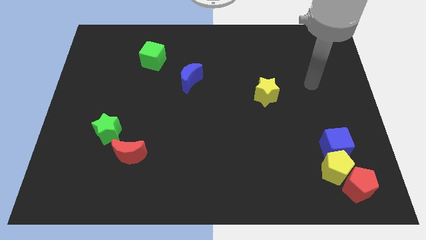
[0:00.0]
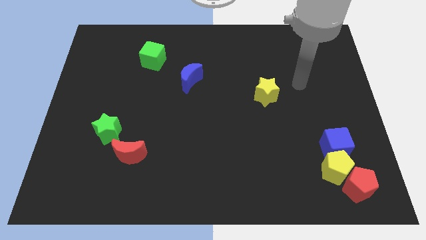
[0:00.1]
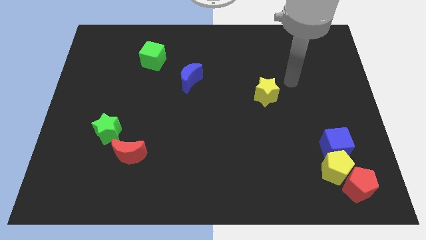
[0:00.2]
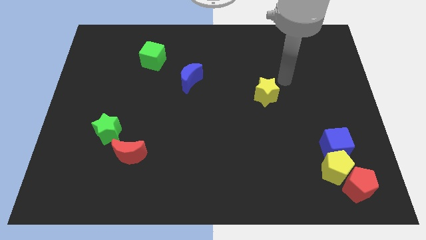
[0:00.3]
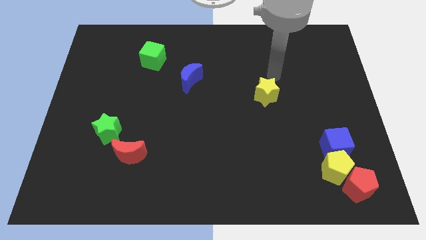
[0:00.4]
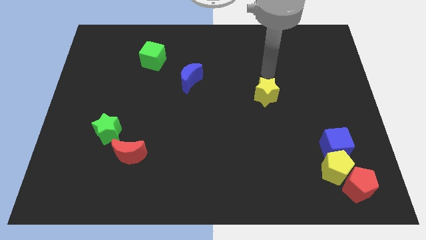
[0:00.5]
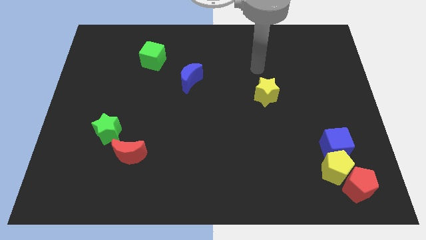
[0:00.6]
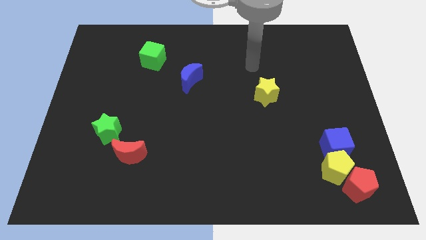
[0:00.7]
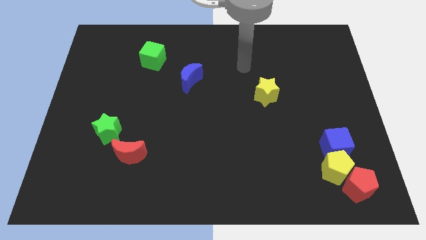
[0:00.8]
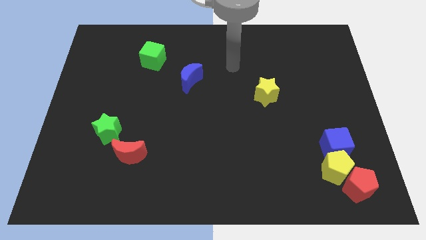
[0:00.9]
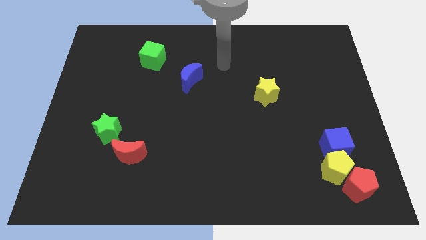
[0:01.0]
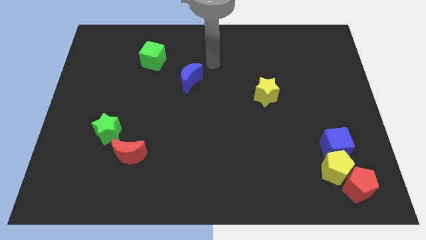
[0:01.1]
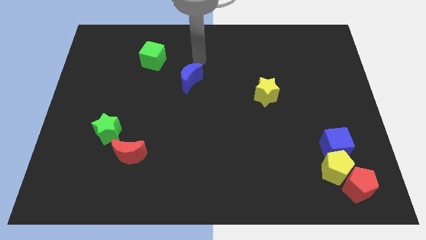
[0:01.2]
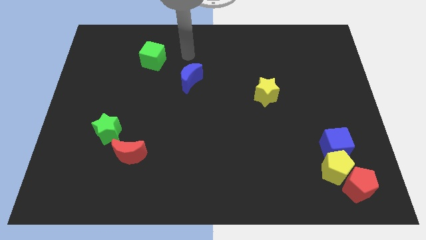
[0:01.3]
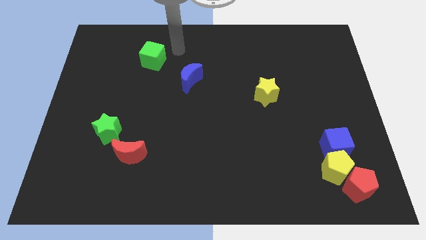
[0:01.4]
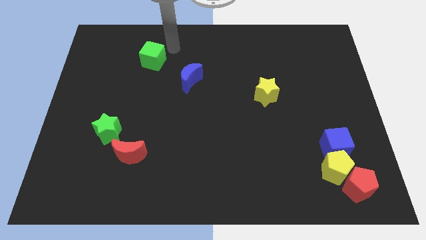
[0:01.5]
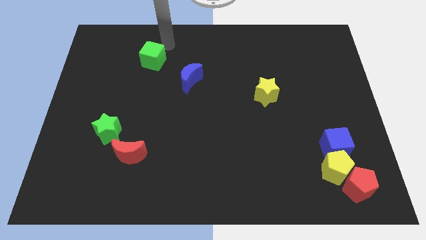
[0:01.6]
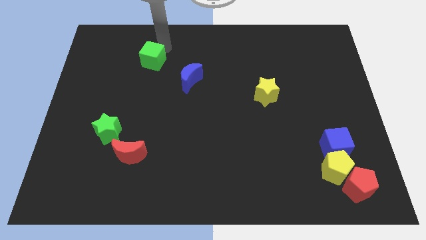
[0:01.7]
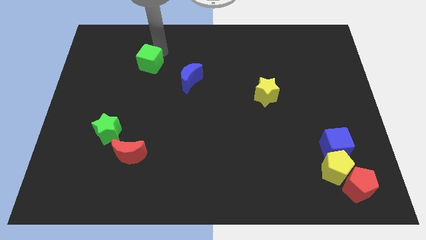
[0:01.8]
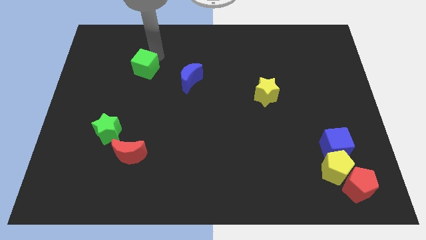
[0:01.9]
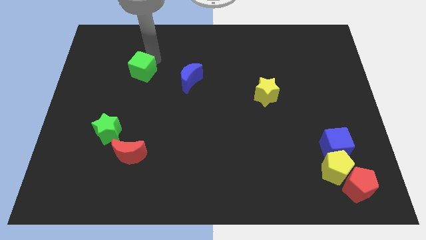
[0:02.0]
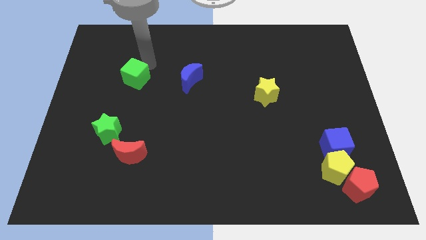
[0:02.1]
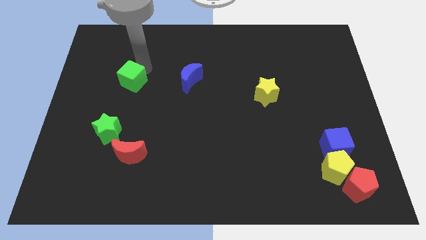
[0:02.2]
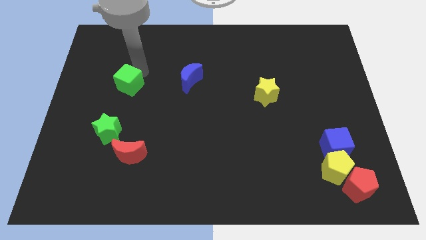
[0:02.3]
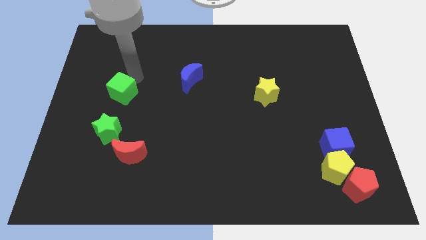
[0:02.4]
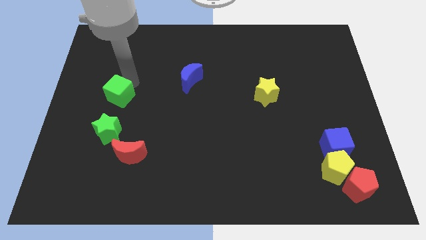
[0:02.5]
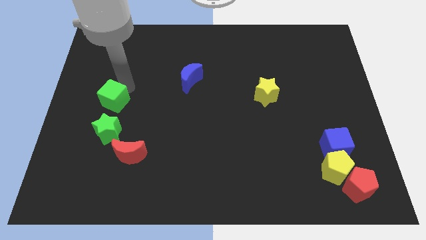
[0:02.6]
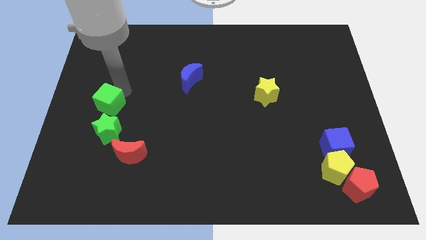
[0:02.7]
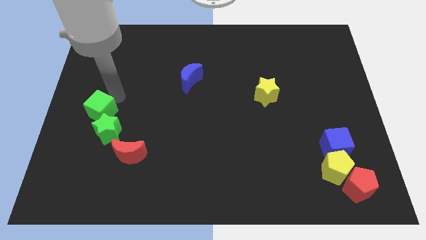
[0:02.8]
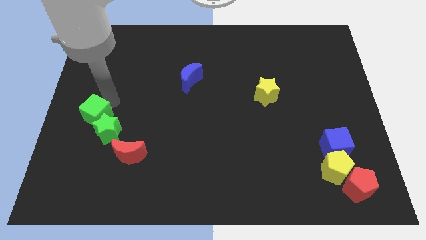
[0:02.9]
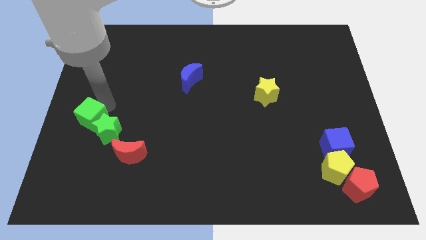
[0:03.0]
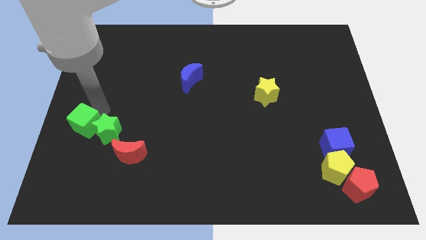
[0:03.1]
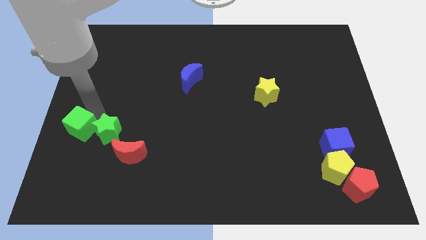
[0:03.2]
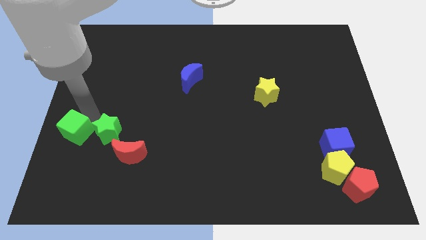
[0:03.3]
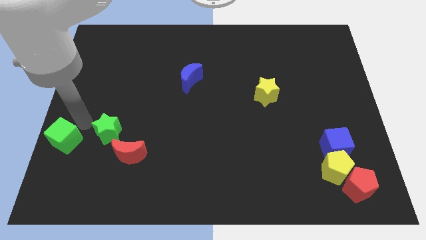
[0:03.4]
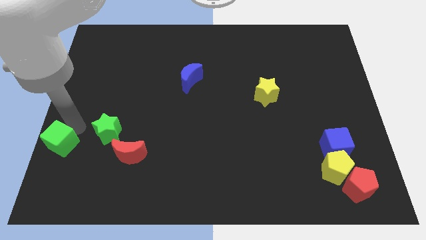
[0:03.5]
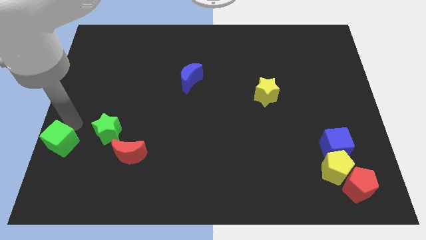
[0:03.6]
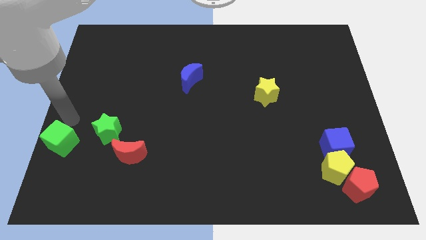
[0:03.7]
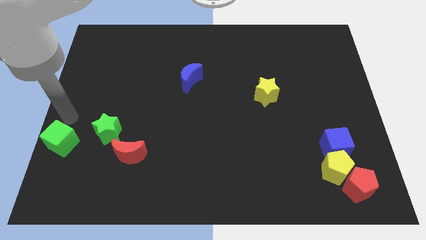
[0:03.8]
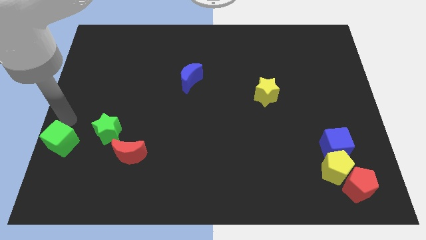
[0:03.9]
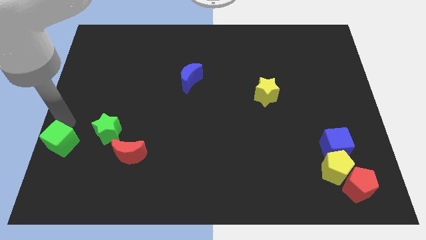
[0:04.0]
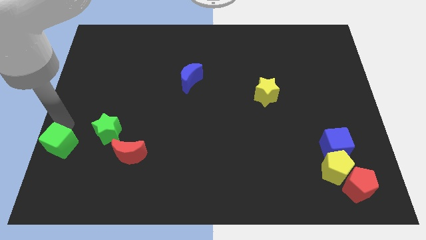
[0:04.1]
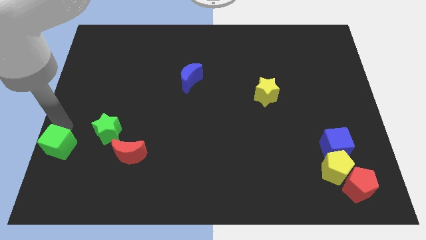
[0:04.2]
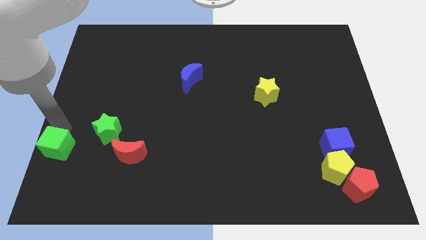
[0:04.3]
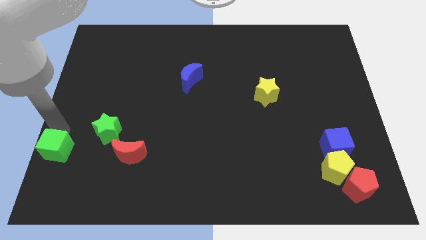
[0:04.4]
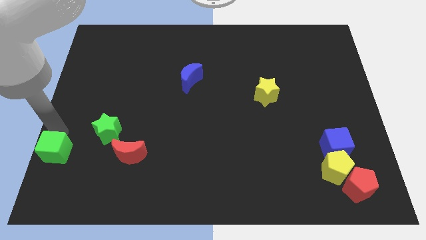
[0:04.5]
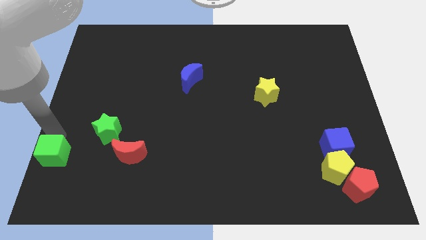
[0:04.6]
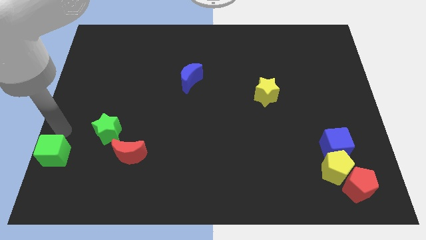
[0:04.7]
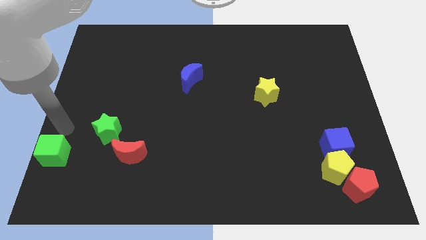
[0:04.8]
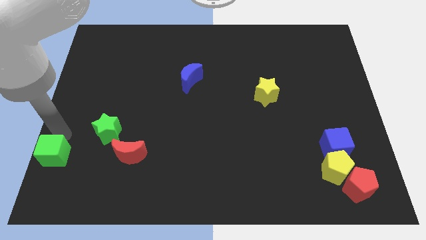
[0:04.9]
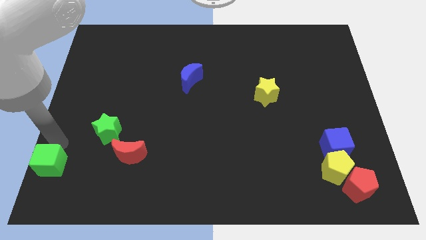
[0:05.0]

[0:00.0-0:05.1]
slide the green cube to the lower left corner
